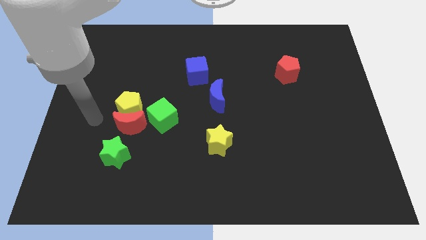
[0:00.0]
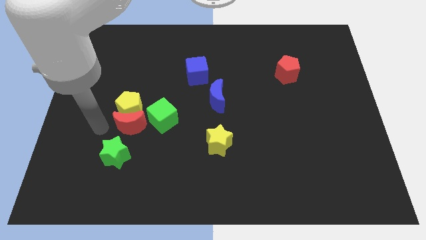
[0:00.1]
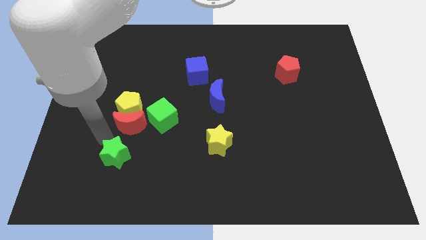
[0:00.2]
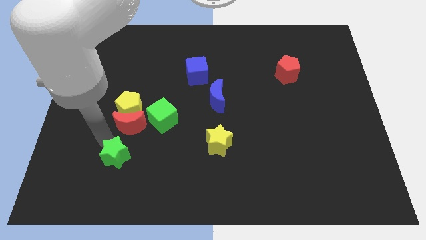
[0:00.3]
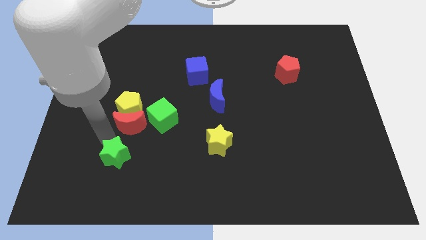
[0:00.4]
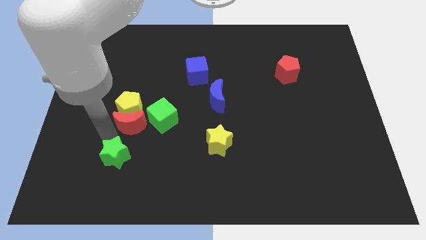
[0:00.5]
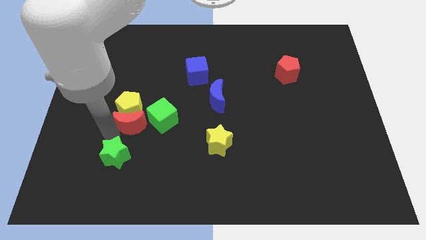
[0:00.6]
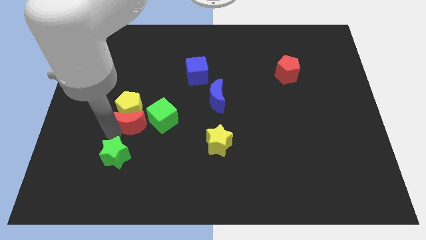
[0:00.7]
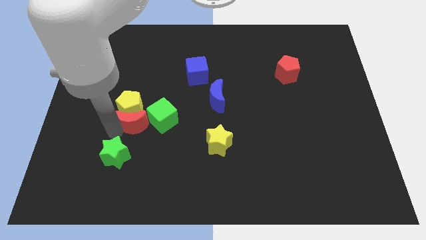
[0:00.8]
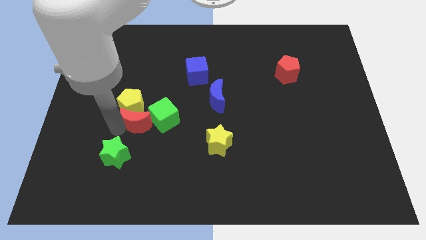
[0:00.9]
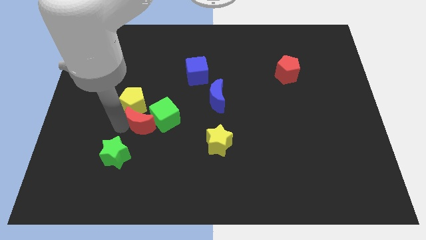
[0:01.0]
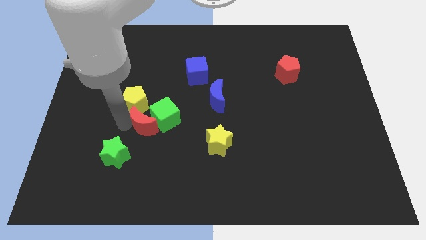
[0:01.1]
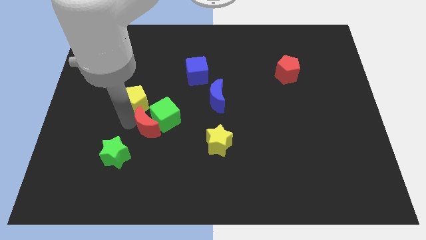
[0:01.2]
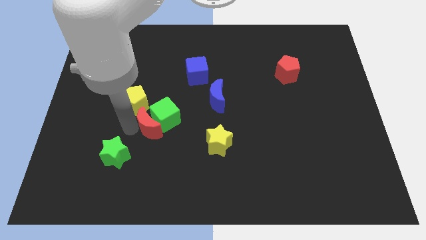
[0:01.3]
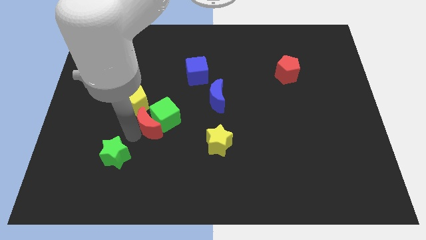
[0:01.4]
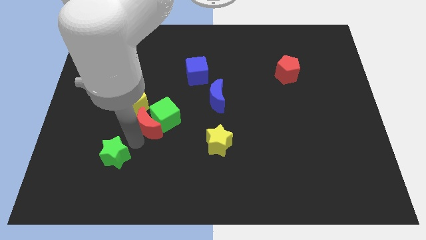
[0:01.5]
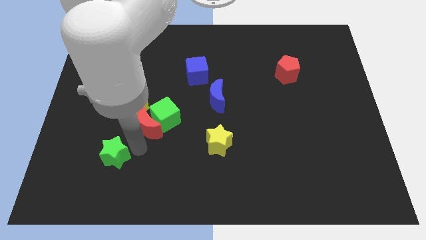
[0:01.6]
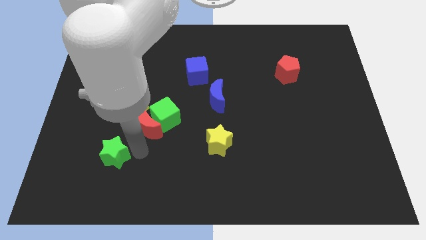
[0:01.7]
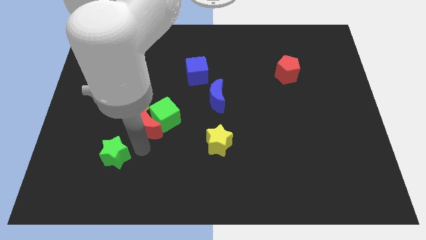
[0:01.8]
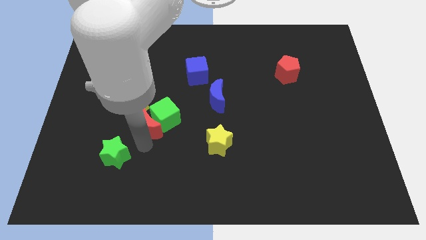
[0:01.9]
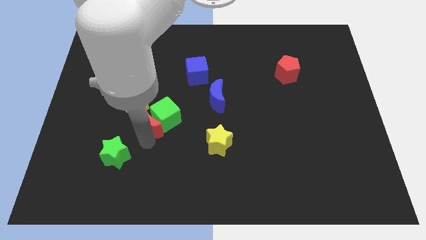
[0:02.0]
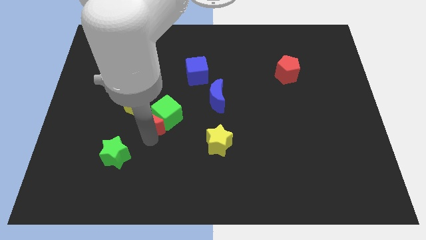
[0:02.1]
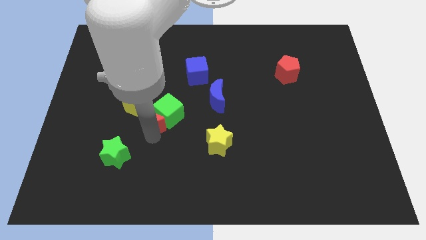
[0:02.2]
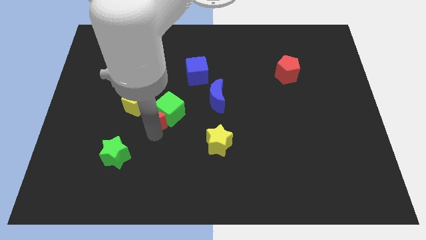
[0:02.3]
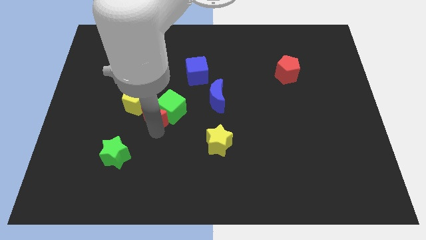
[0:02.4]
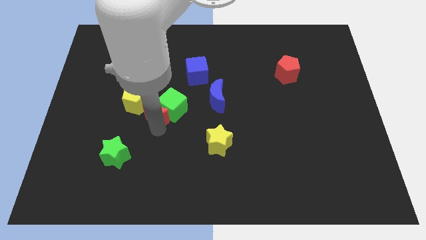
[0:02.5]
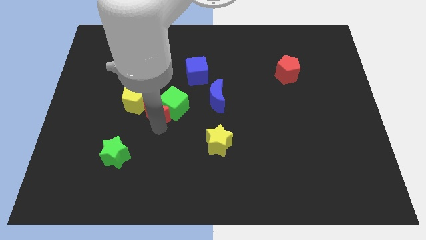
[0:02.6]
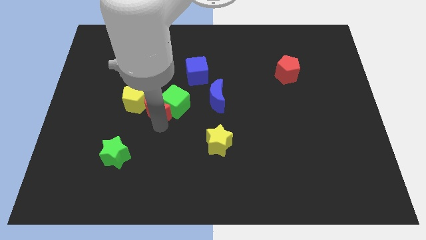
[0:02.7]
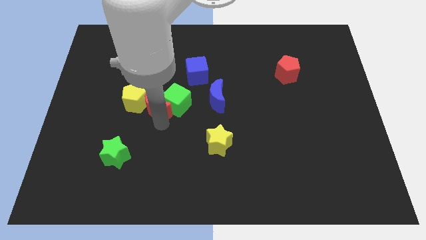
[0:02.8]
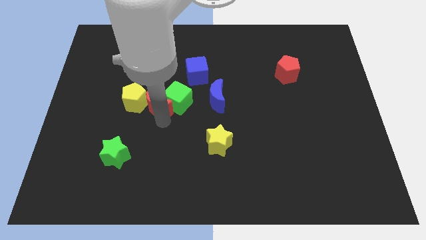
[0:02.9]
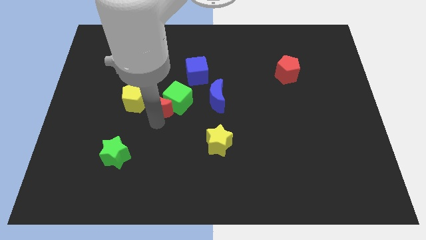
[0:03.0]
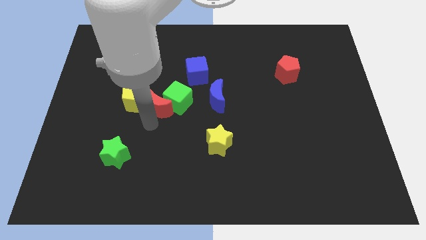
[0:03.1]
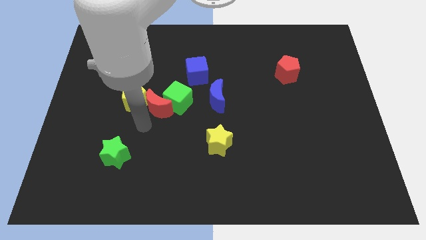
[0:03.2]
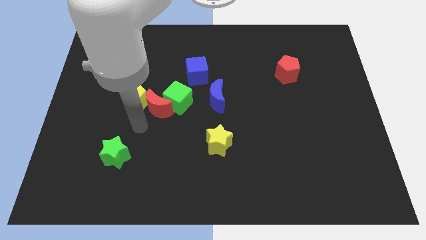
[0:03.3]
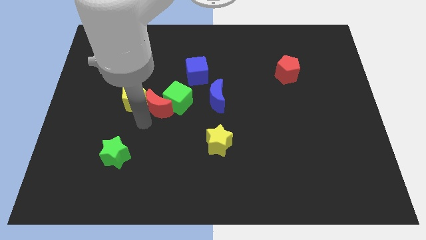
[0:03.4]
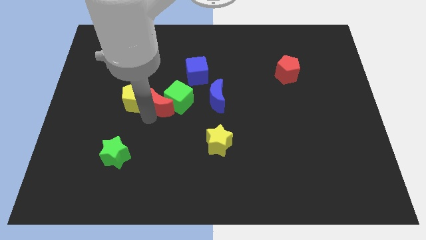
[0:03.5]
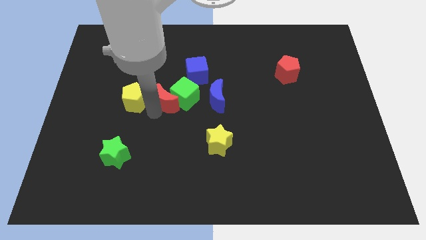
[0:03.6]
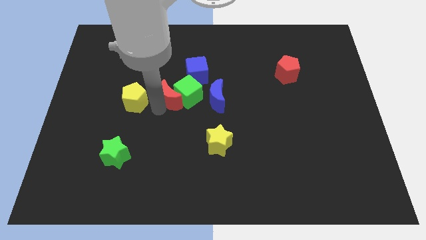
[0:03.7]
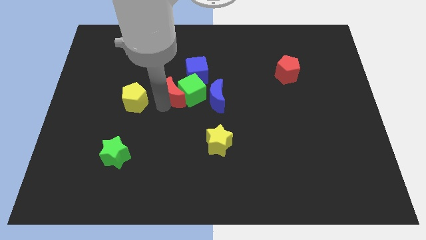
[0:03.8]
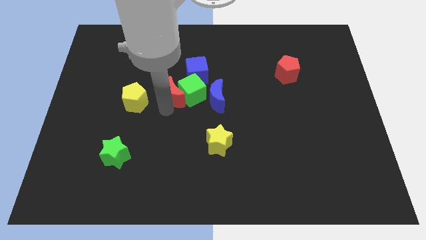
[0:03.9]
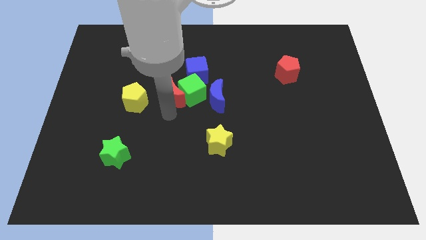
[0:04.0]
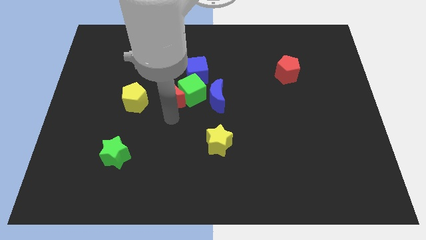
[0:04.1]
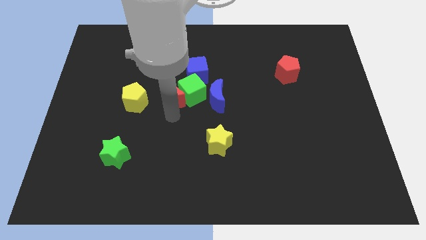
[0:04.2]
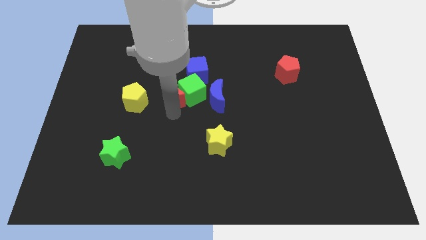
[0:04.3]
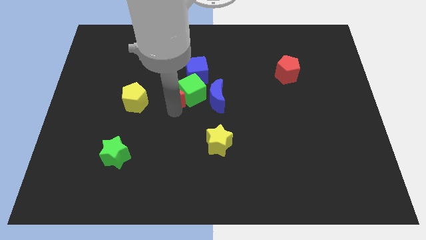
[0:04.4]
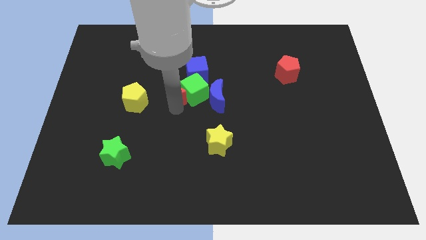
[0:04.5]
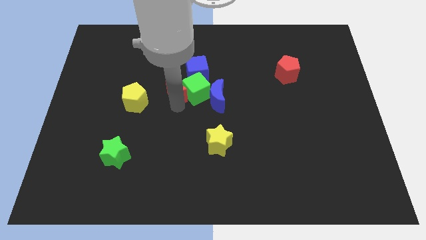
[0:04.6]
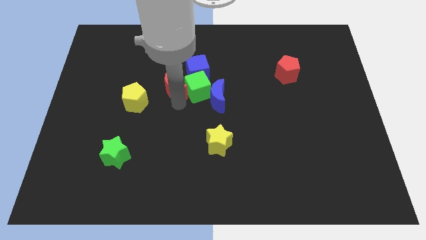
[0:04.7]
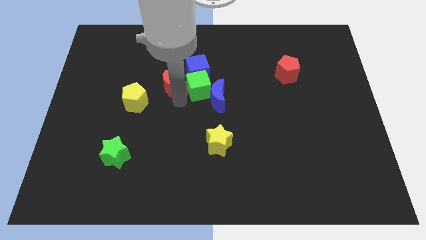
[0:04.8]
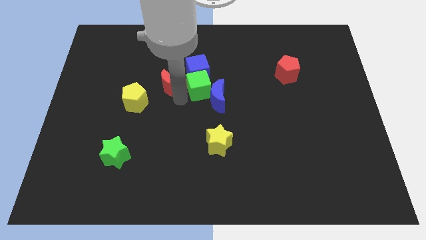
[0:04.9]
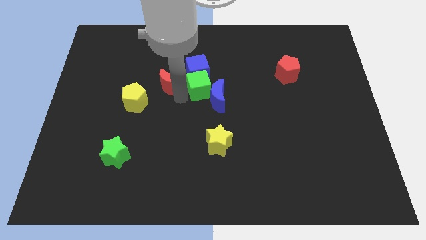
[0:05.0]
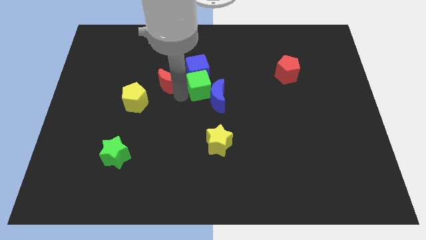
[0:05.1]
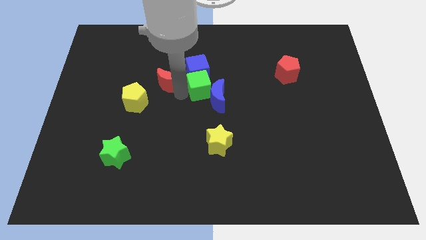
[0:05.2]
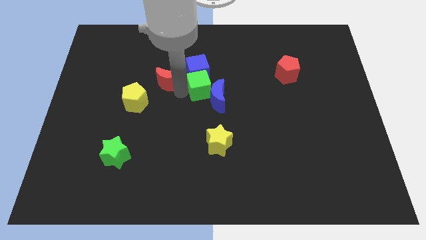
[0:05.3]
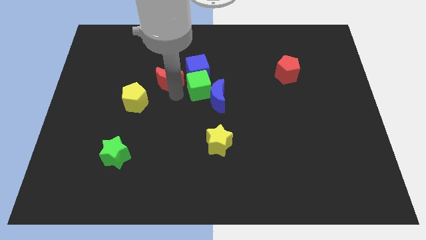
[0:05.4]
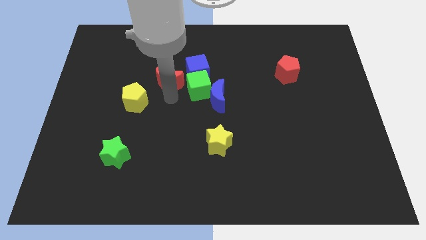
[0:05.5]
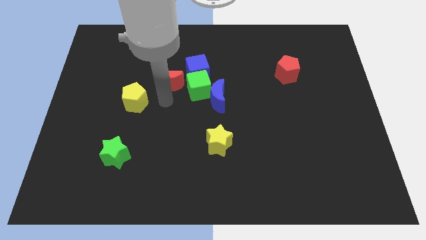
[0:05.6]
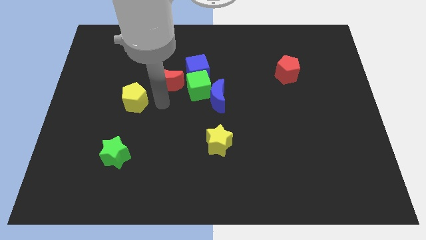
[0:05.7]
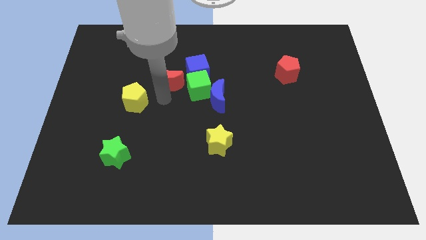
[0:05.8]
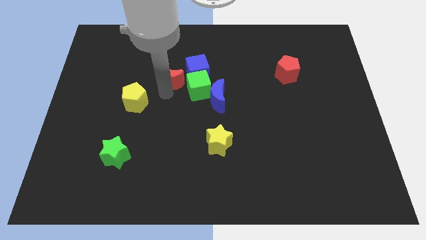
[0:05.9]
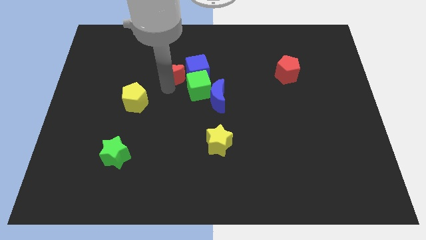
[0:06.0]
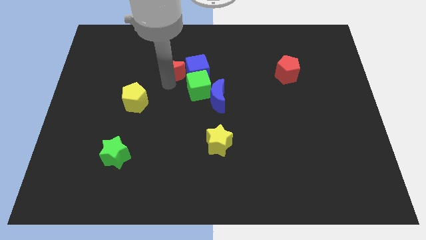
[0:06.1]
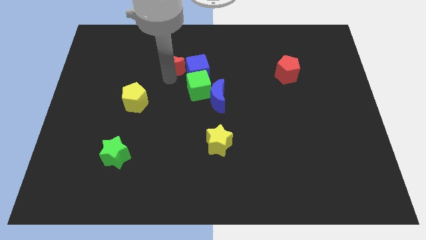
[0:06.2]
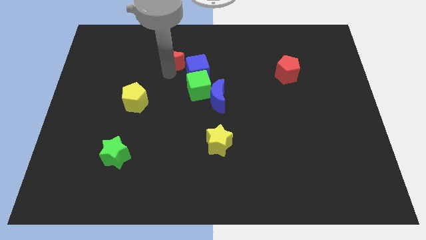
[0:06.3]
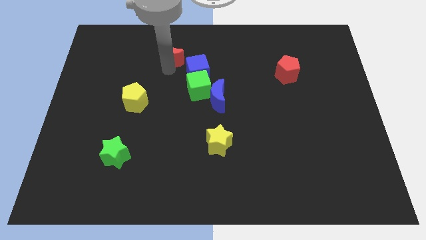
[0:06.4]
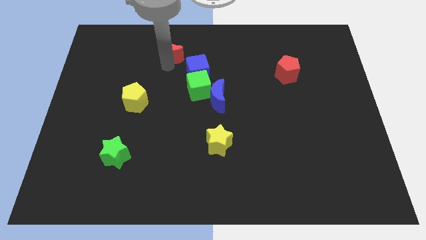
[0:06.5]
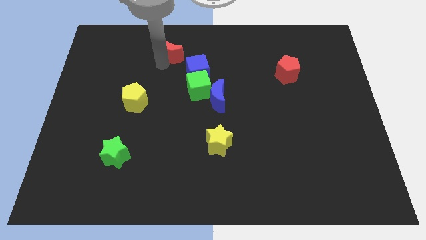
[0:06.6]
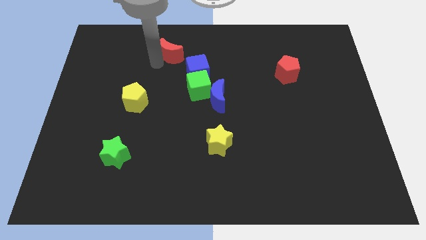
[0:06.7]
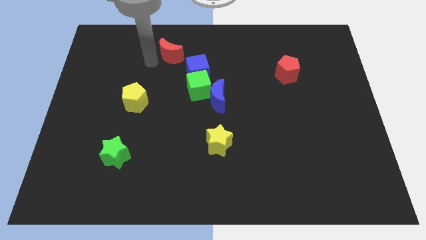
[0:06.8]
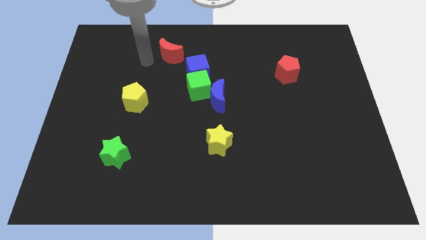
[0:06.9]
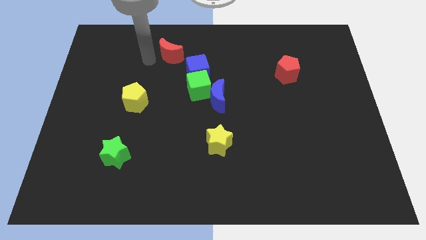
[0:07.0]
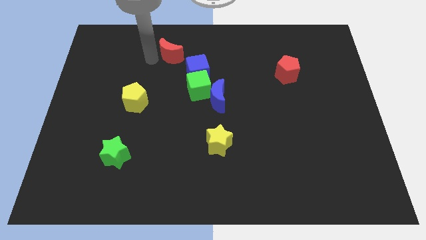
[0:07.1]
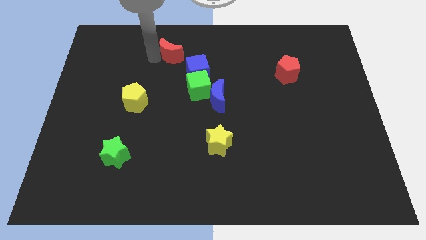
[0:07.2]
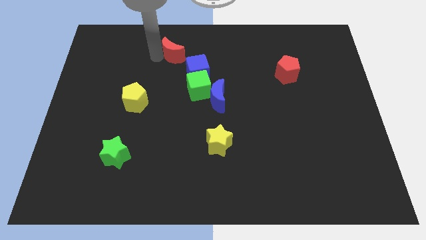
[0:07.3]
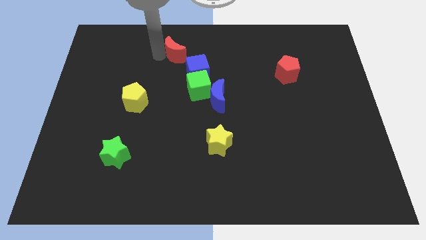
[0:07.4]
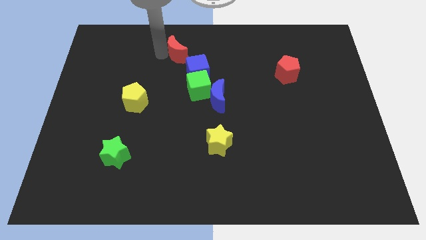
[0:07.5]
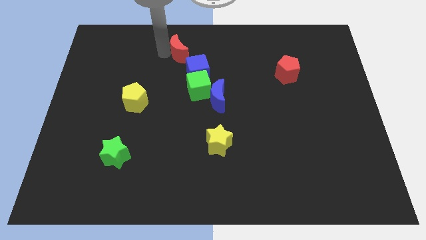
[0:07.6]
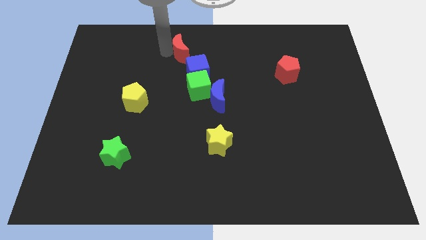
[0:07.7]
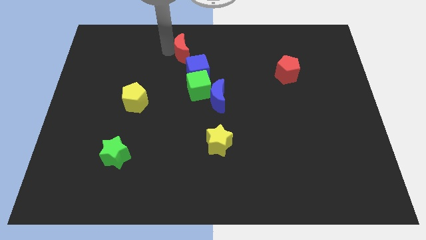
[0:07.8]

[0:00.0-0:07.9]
slide the red moon diagonally upwards and to the right

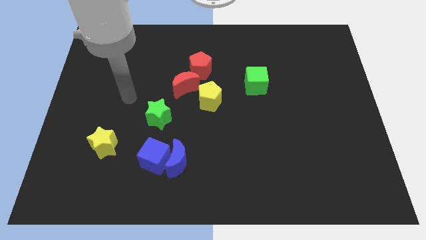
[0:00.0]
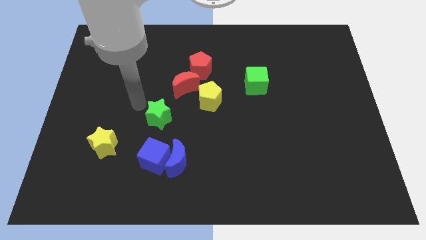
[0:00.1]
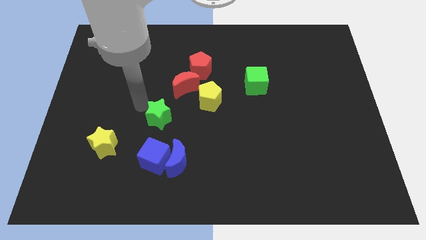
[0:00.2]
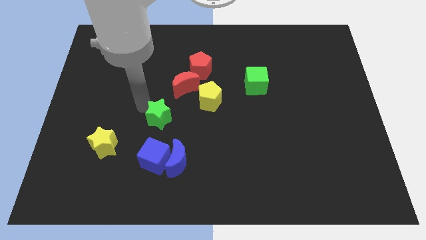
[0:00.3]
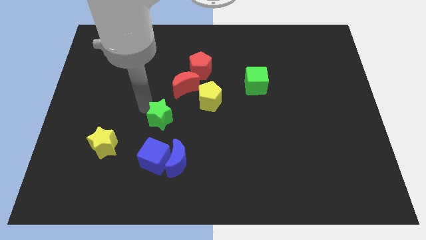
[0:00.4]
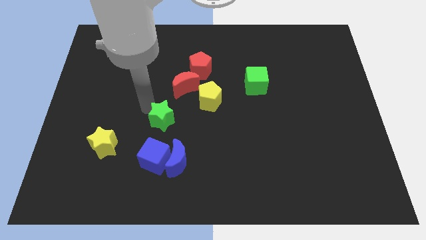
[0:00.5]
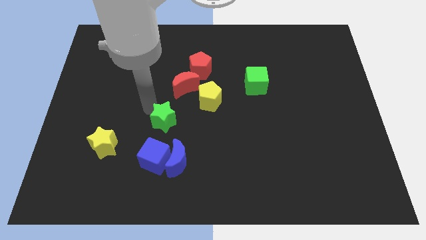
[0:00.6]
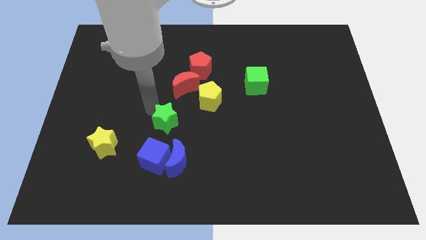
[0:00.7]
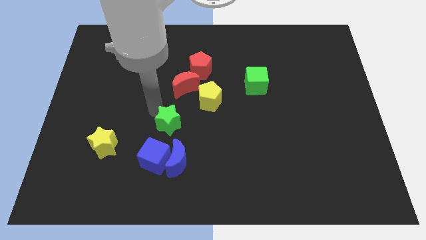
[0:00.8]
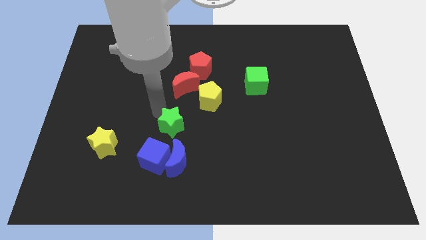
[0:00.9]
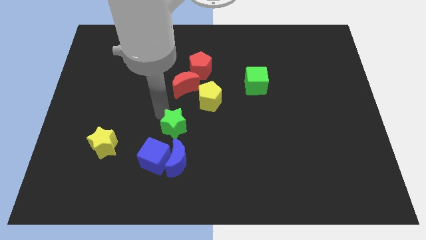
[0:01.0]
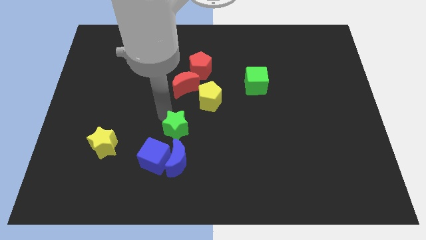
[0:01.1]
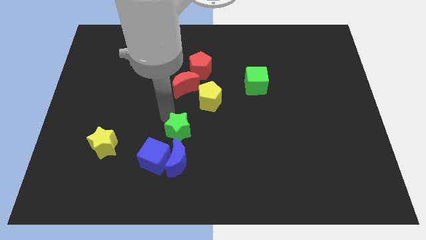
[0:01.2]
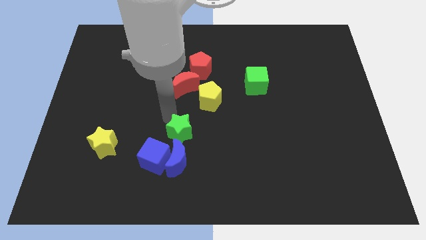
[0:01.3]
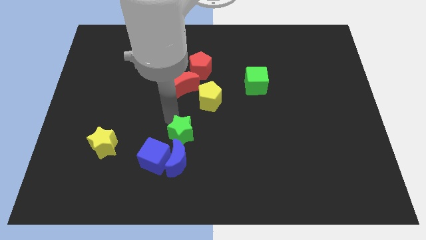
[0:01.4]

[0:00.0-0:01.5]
slide the green star somewhat down and to the right diagonally
